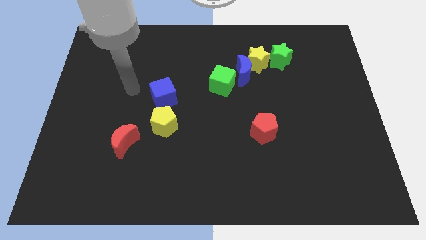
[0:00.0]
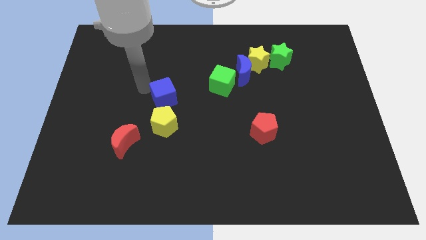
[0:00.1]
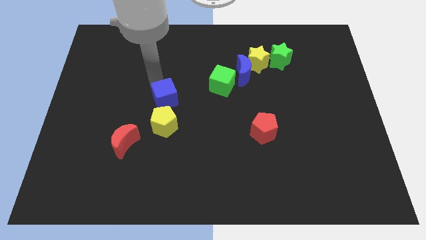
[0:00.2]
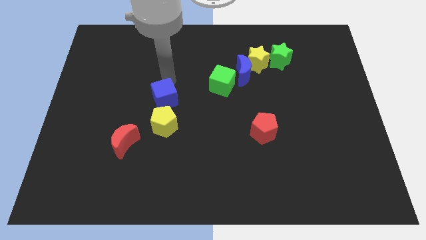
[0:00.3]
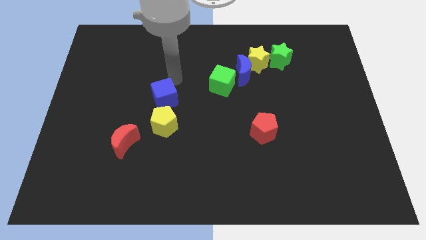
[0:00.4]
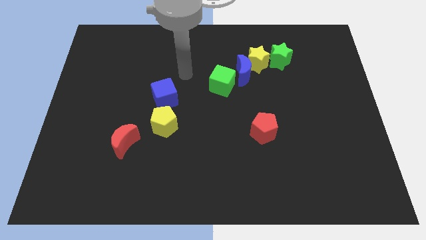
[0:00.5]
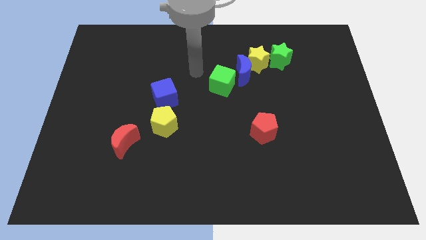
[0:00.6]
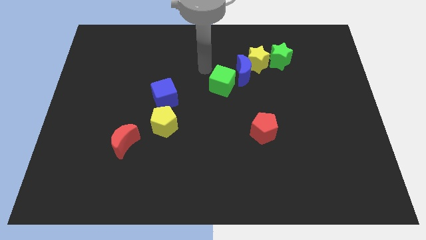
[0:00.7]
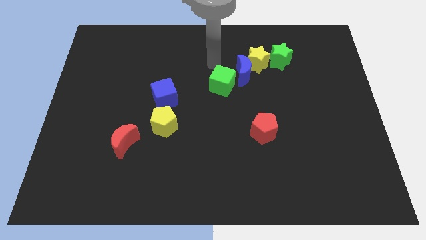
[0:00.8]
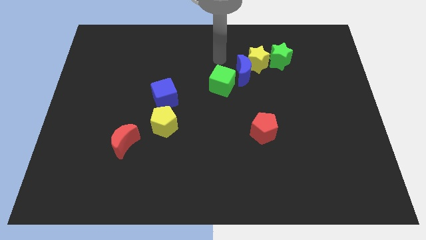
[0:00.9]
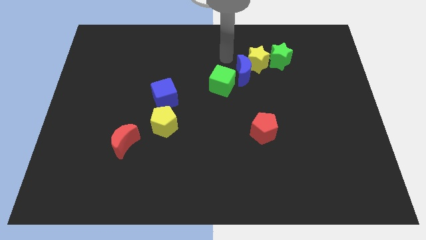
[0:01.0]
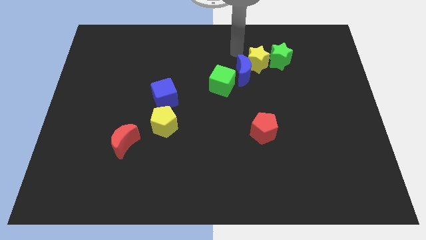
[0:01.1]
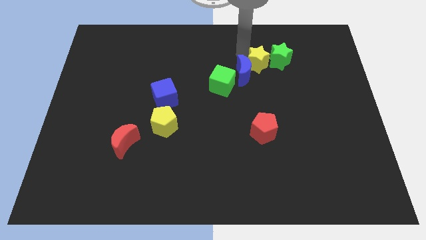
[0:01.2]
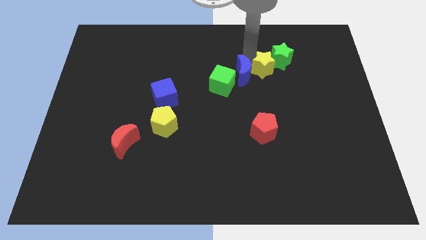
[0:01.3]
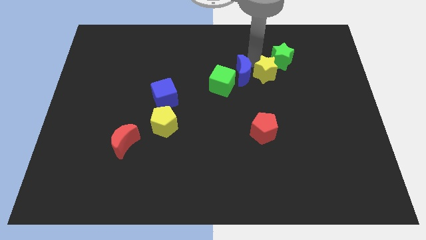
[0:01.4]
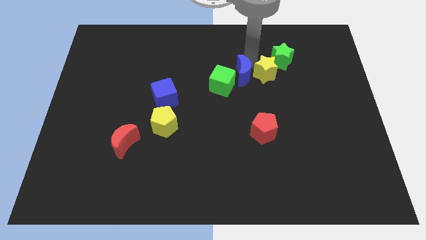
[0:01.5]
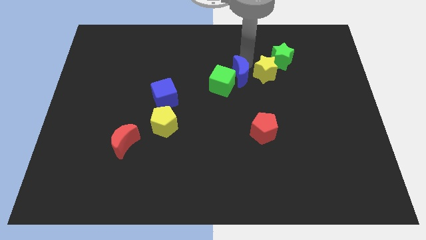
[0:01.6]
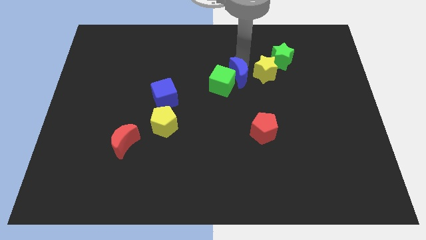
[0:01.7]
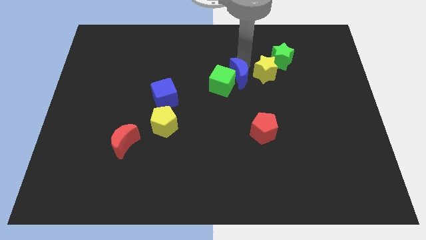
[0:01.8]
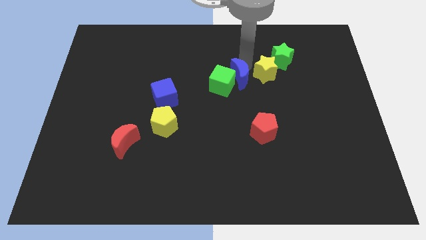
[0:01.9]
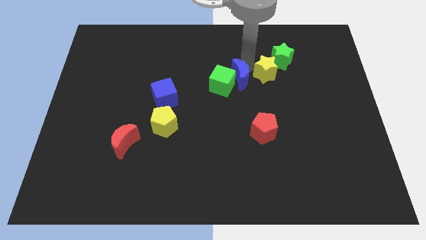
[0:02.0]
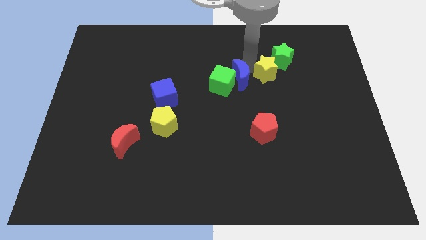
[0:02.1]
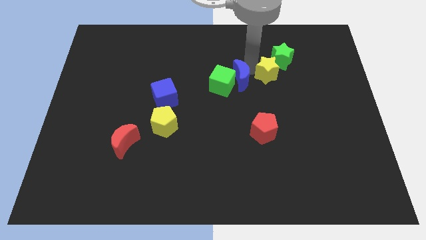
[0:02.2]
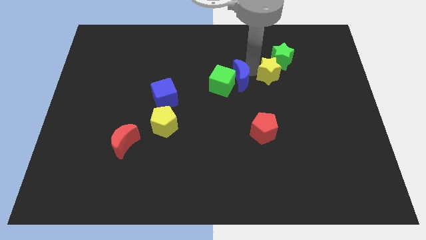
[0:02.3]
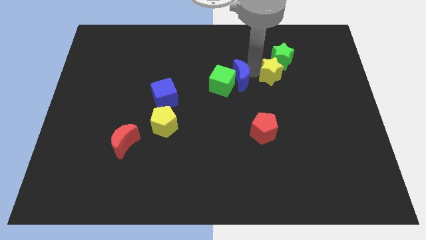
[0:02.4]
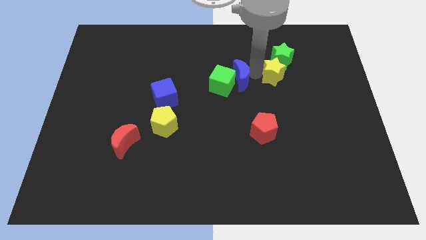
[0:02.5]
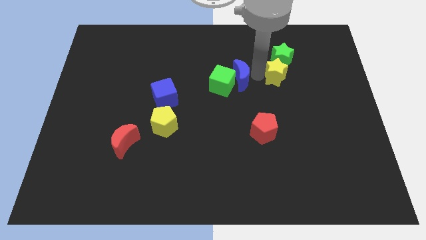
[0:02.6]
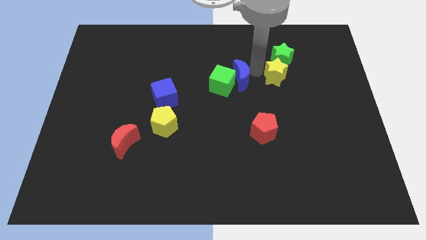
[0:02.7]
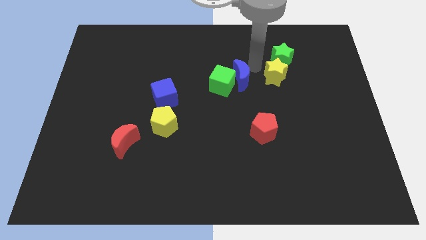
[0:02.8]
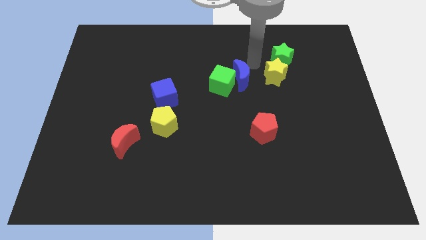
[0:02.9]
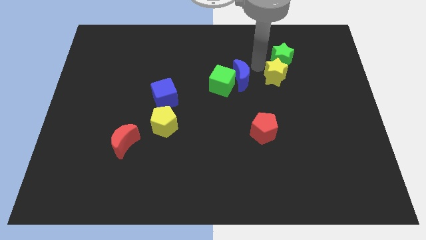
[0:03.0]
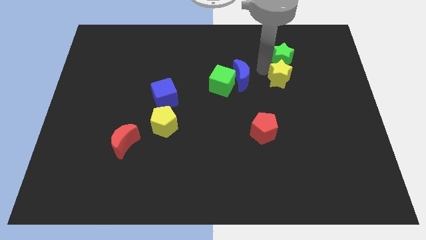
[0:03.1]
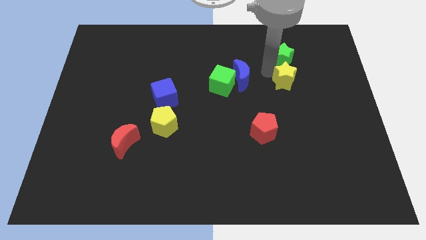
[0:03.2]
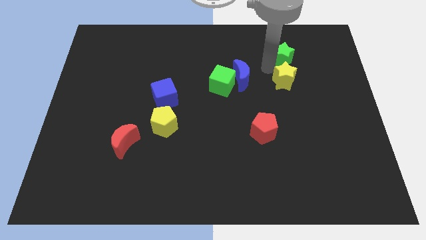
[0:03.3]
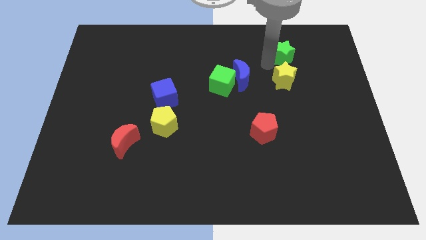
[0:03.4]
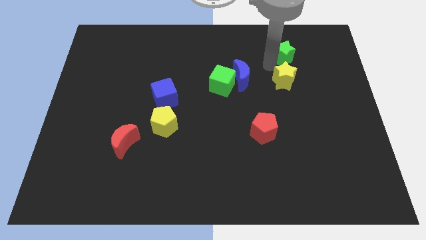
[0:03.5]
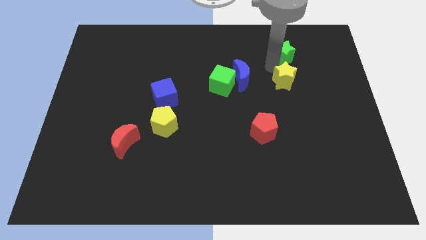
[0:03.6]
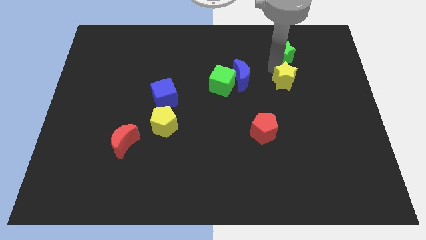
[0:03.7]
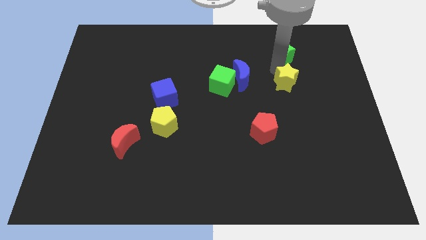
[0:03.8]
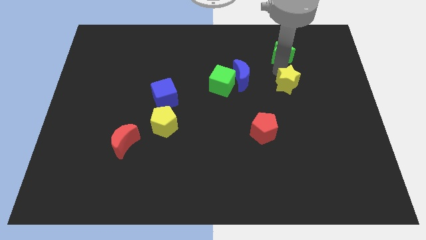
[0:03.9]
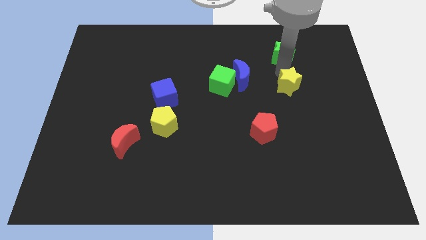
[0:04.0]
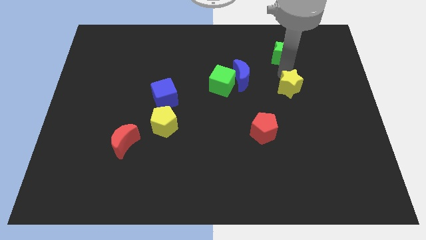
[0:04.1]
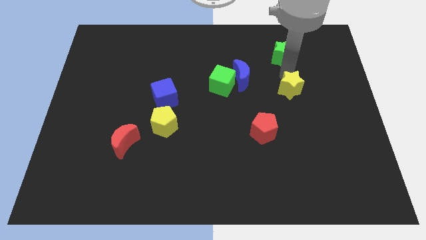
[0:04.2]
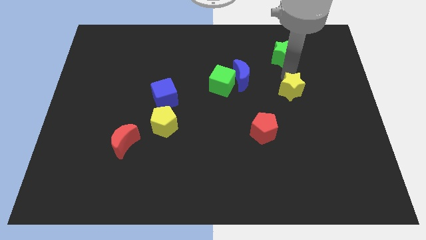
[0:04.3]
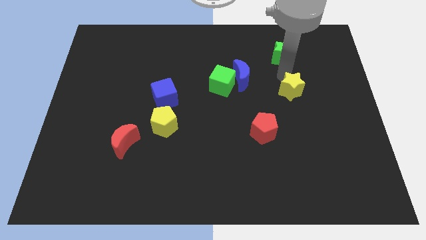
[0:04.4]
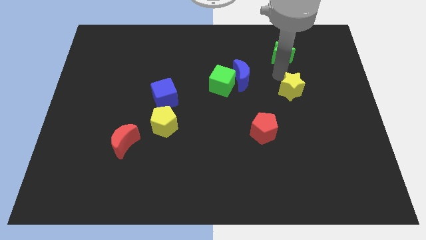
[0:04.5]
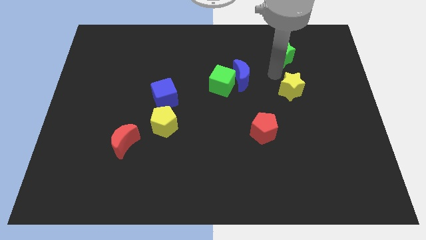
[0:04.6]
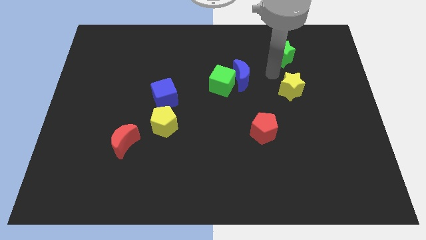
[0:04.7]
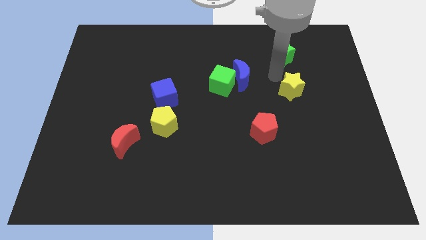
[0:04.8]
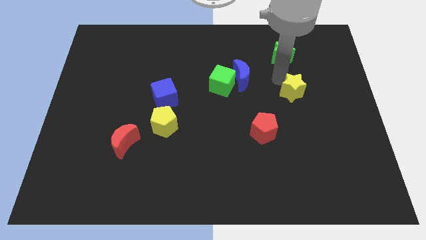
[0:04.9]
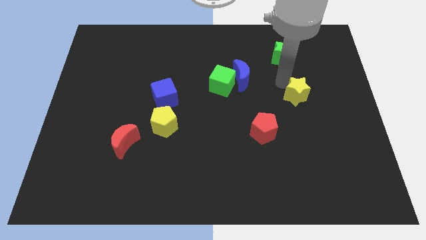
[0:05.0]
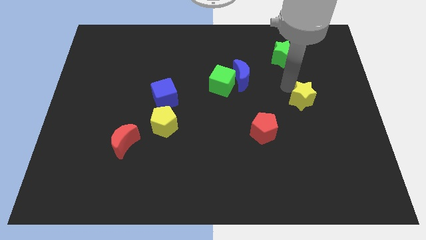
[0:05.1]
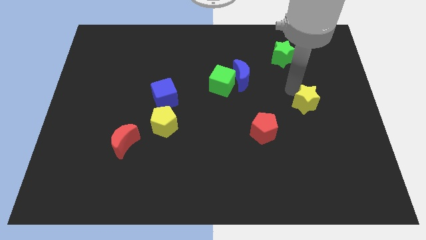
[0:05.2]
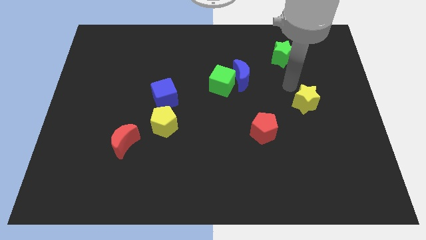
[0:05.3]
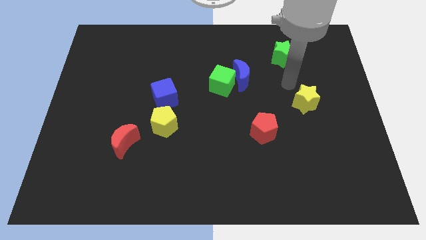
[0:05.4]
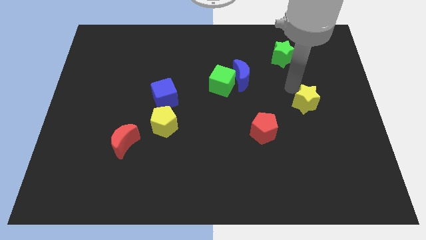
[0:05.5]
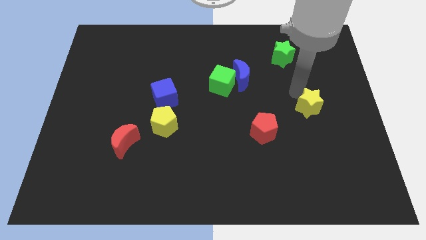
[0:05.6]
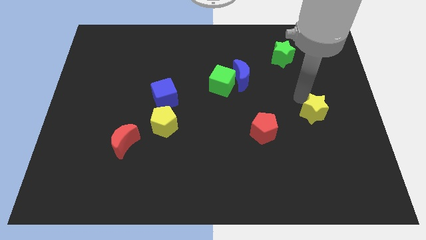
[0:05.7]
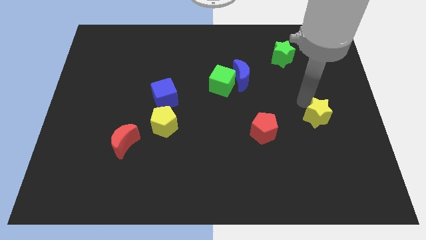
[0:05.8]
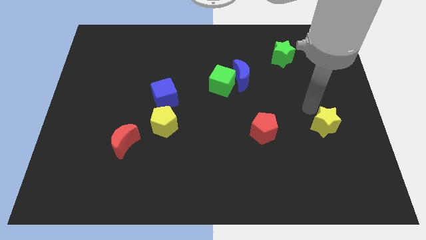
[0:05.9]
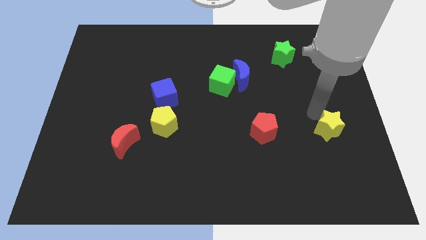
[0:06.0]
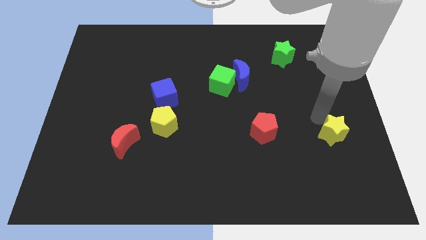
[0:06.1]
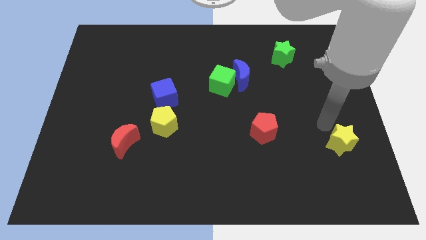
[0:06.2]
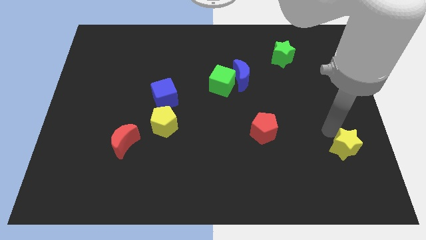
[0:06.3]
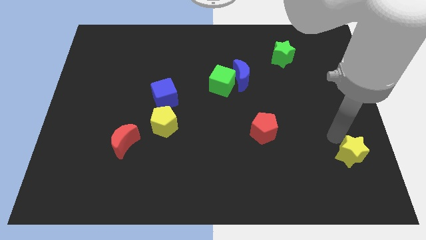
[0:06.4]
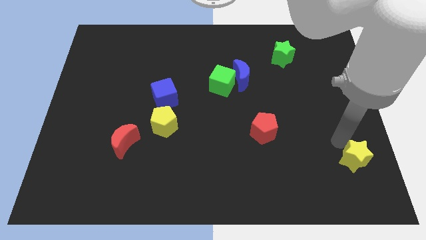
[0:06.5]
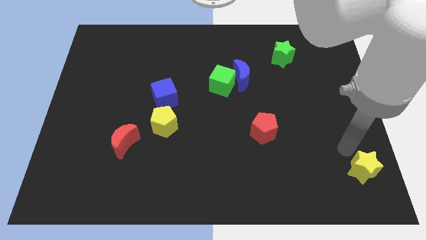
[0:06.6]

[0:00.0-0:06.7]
put the yellow star to the bottom right
